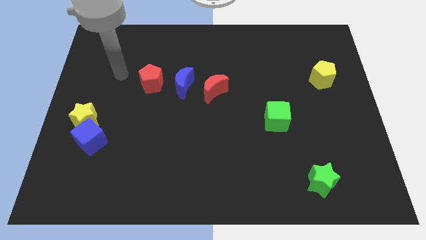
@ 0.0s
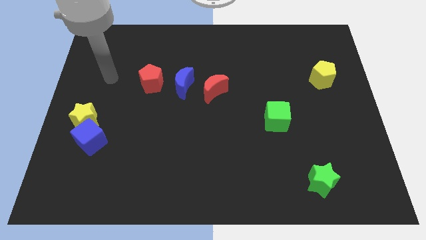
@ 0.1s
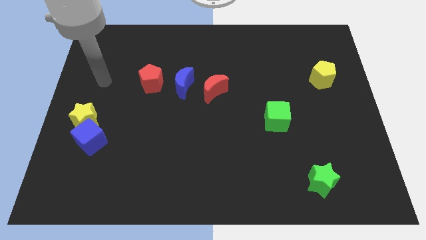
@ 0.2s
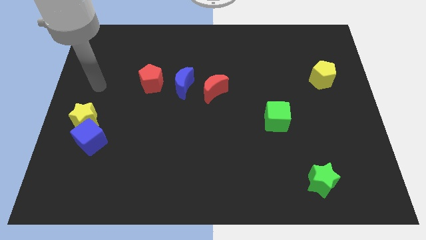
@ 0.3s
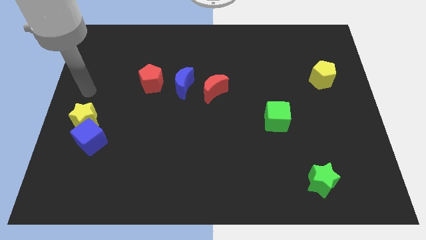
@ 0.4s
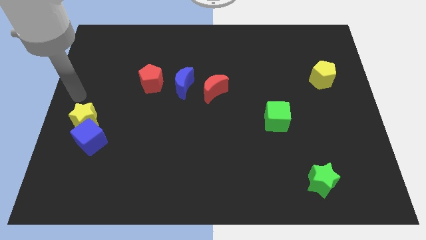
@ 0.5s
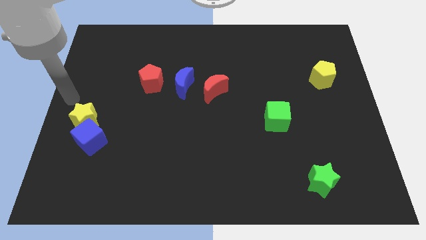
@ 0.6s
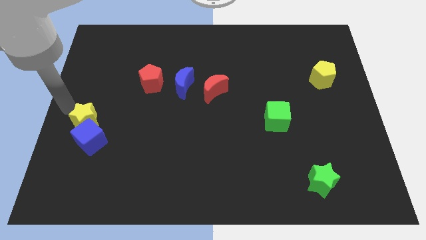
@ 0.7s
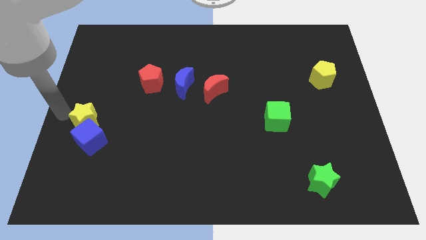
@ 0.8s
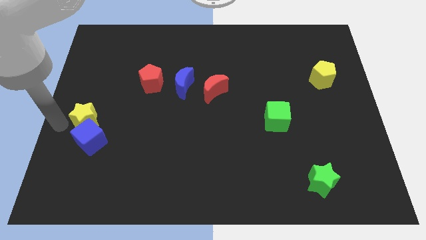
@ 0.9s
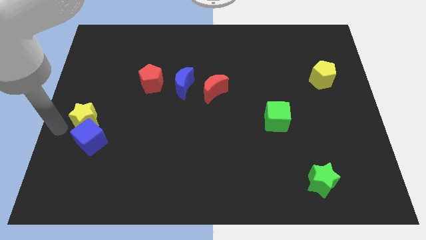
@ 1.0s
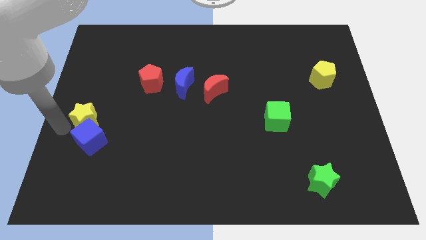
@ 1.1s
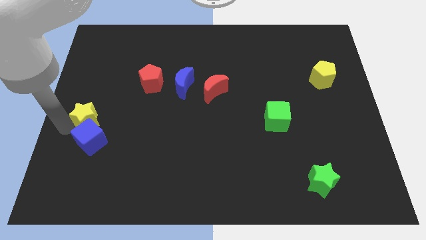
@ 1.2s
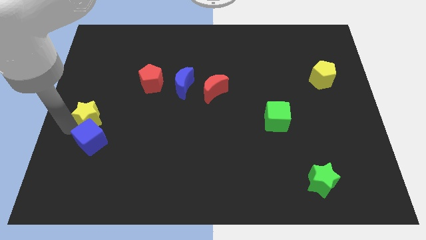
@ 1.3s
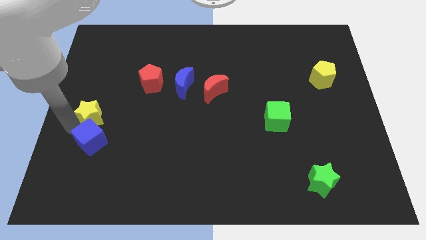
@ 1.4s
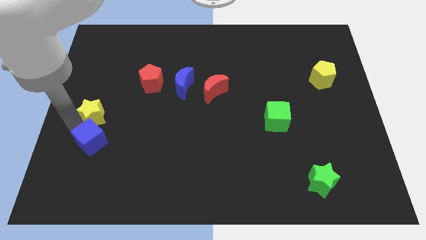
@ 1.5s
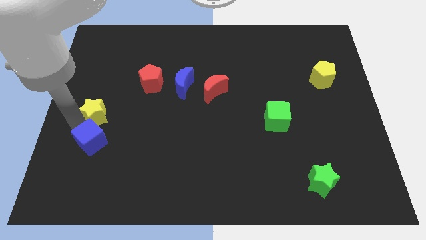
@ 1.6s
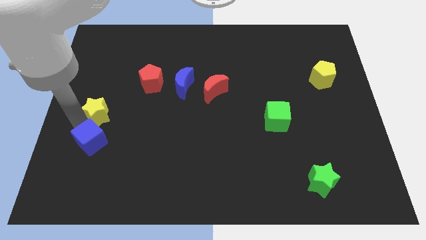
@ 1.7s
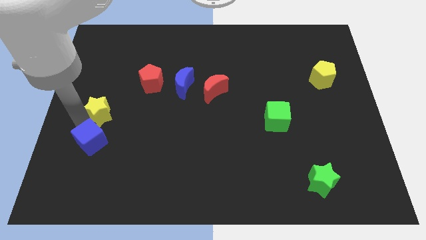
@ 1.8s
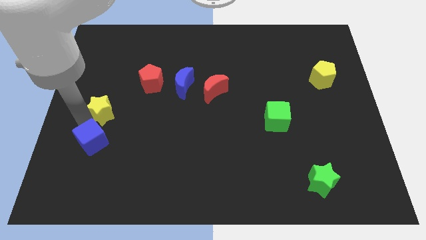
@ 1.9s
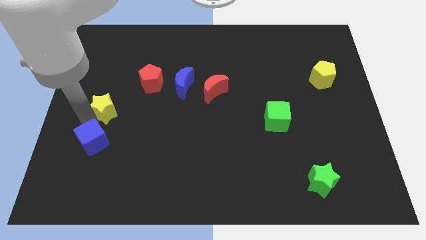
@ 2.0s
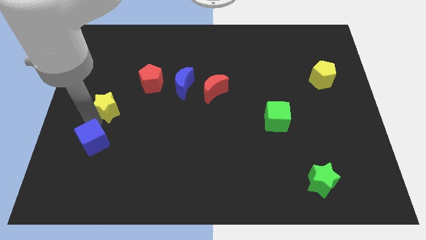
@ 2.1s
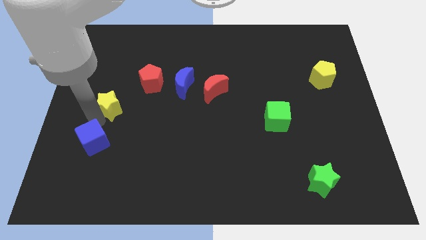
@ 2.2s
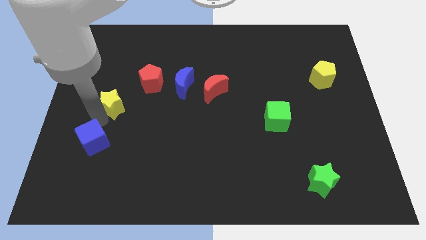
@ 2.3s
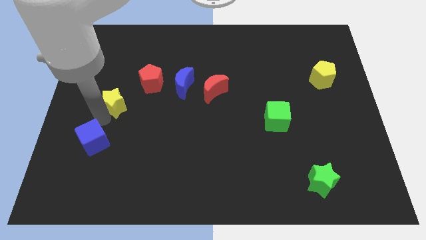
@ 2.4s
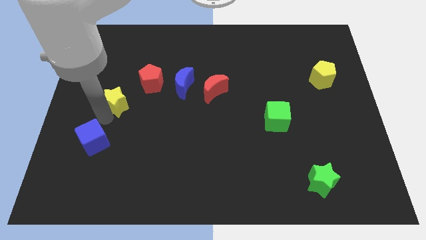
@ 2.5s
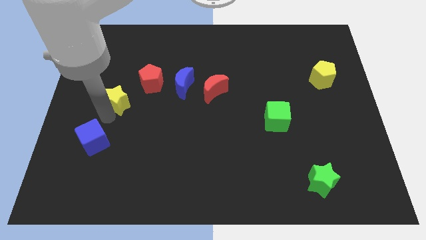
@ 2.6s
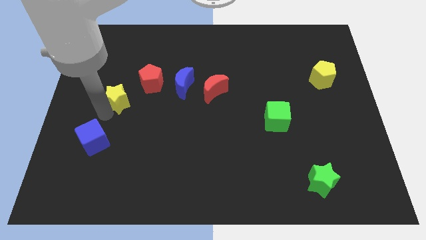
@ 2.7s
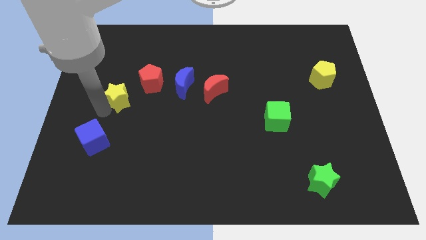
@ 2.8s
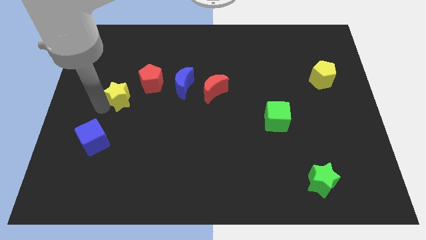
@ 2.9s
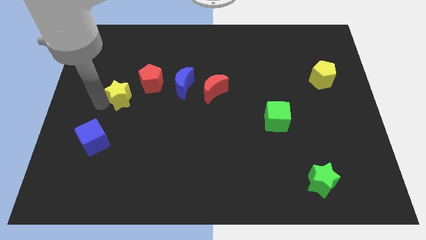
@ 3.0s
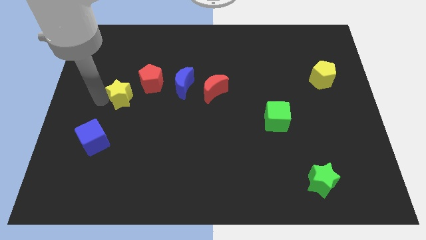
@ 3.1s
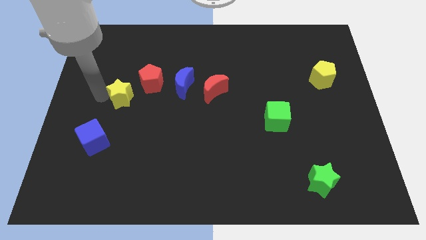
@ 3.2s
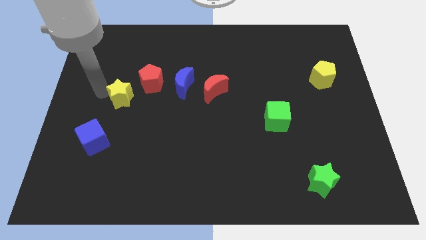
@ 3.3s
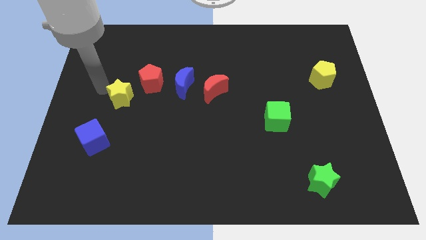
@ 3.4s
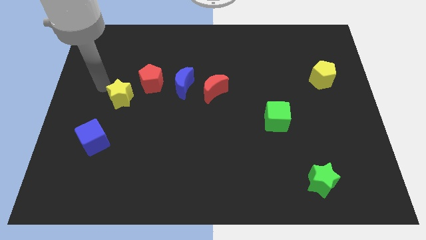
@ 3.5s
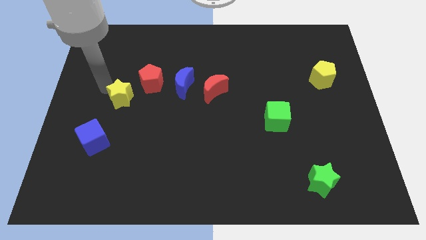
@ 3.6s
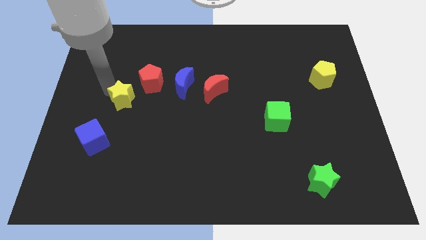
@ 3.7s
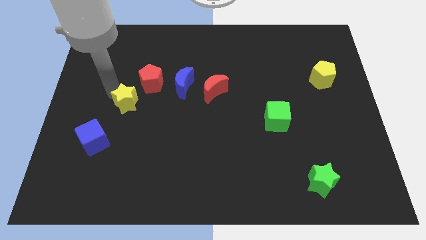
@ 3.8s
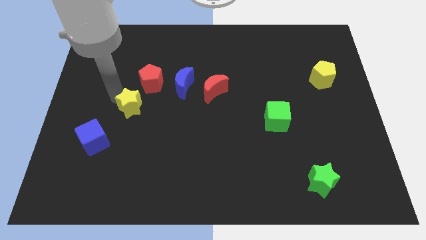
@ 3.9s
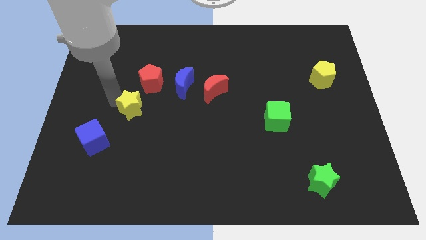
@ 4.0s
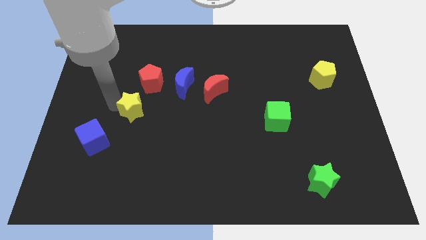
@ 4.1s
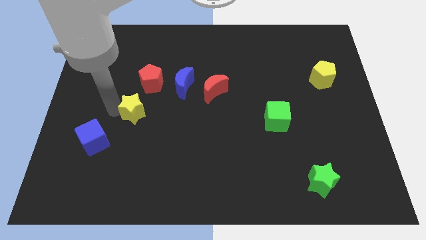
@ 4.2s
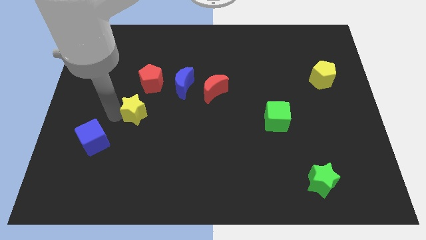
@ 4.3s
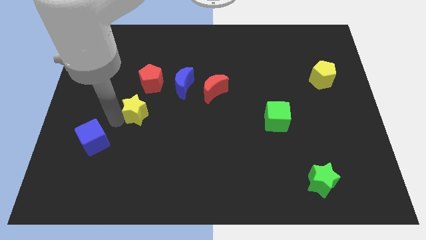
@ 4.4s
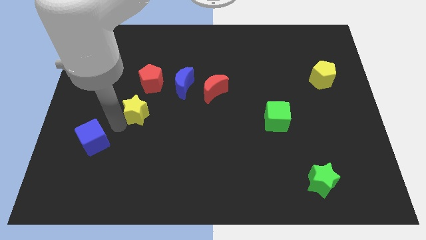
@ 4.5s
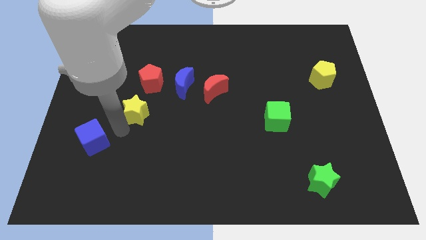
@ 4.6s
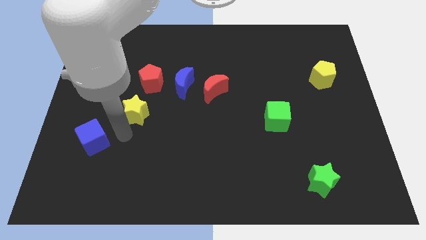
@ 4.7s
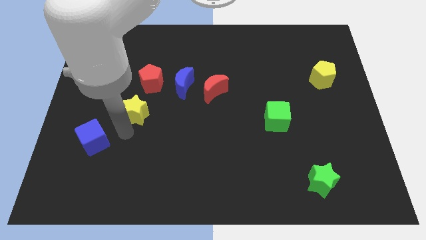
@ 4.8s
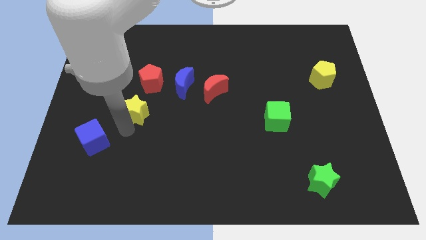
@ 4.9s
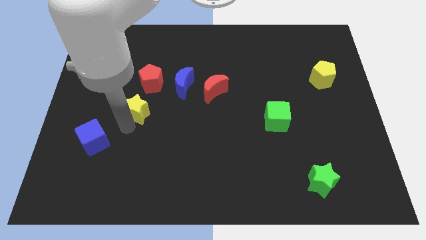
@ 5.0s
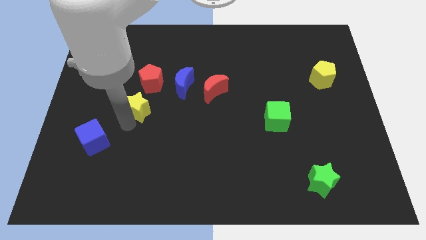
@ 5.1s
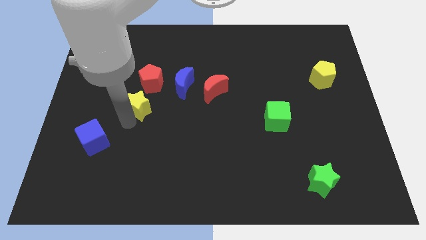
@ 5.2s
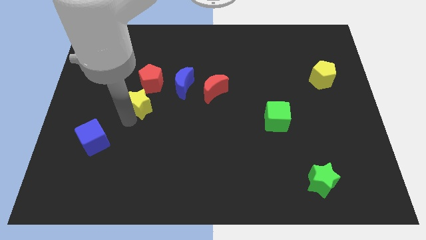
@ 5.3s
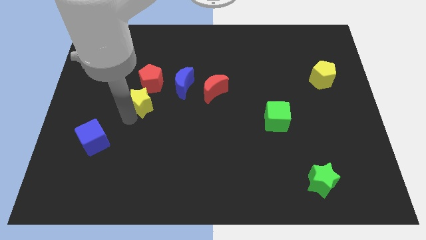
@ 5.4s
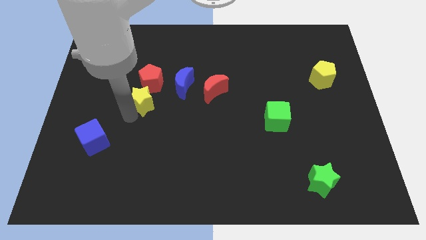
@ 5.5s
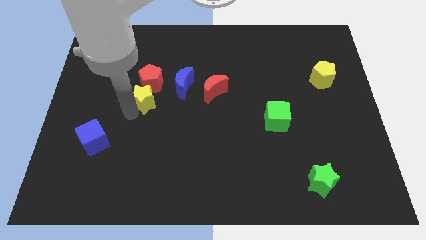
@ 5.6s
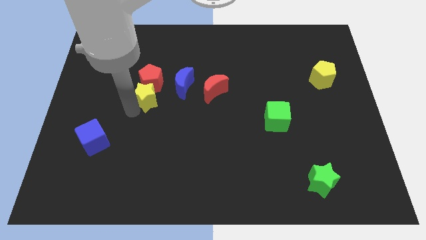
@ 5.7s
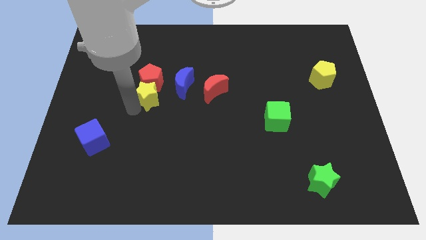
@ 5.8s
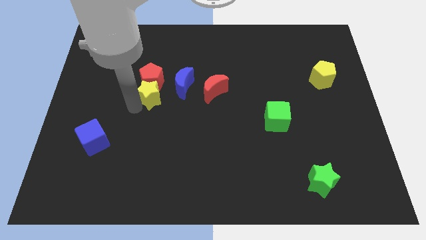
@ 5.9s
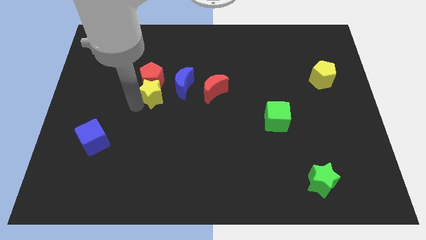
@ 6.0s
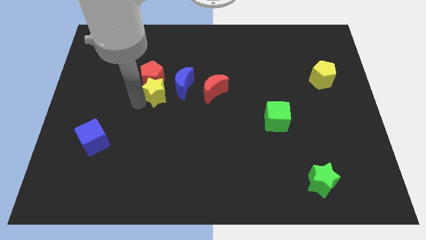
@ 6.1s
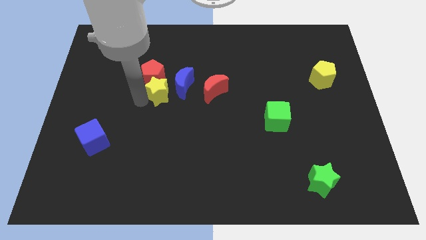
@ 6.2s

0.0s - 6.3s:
push the yellow star to the blue moon

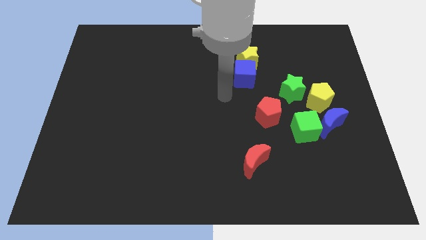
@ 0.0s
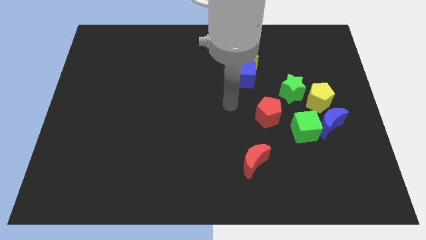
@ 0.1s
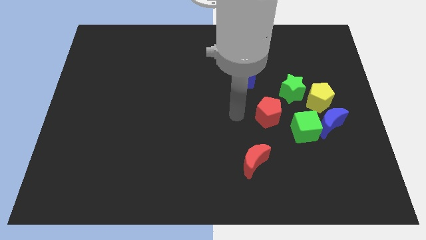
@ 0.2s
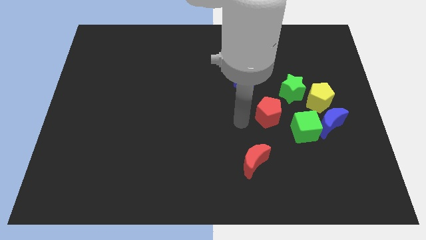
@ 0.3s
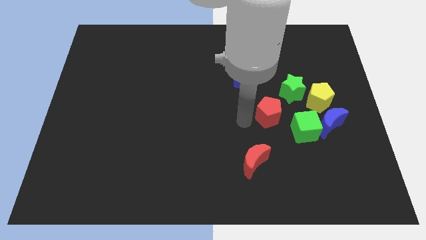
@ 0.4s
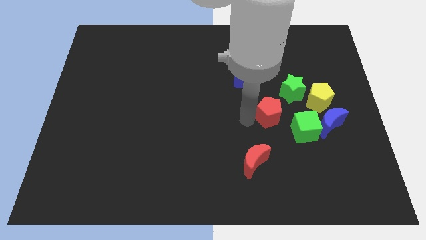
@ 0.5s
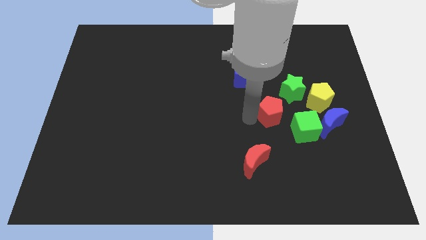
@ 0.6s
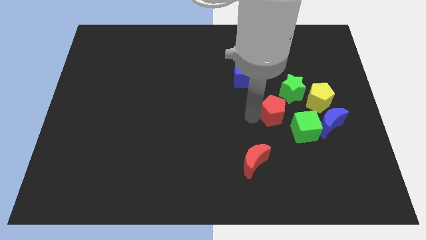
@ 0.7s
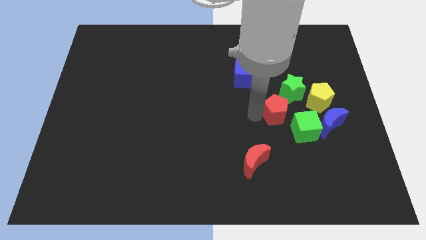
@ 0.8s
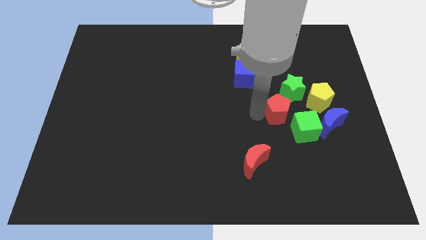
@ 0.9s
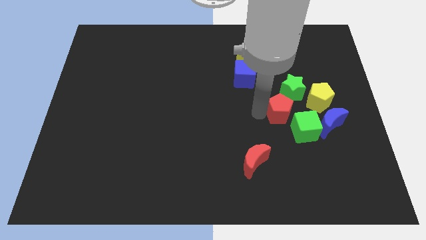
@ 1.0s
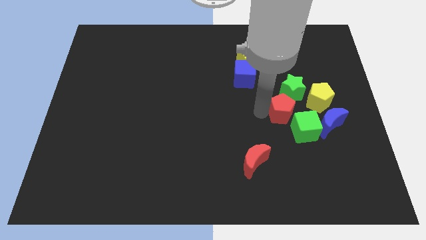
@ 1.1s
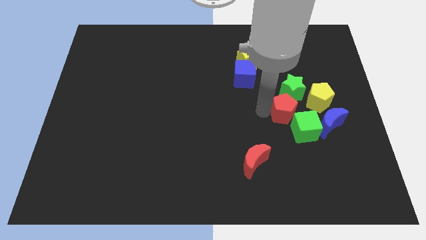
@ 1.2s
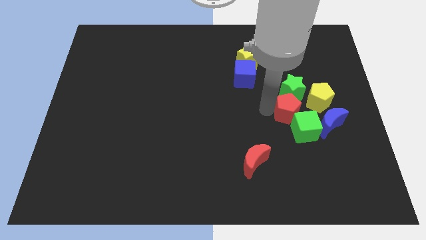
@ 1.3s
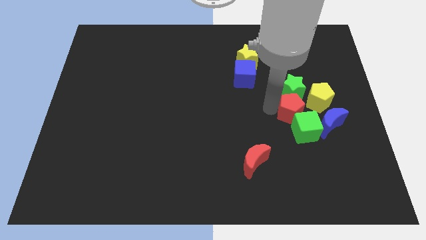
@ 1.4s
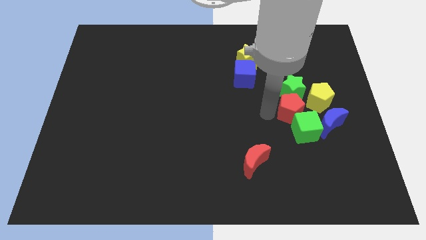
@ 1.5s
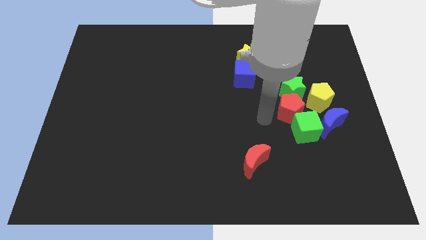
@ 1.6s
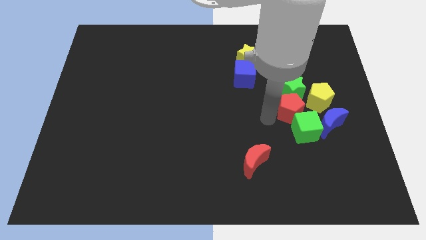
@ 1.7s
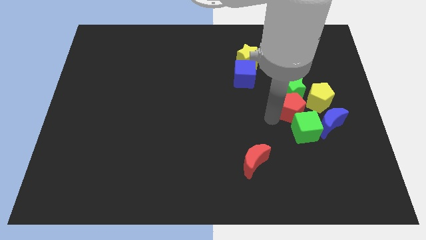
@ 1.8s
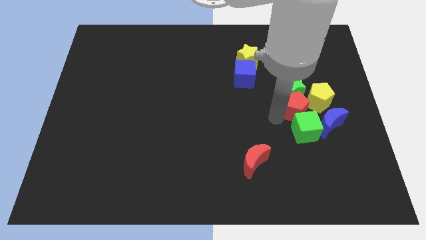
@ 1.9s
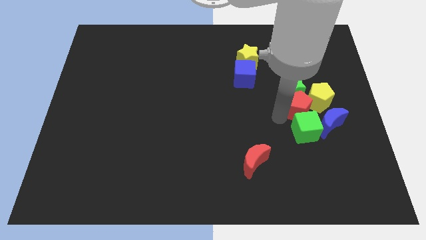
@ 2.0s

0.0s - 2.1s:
slide the red pentagon close to the yellow pentagon
